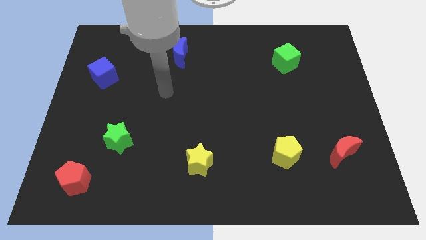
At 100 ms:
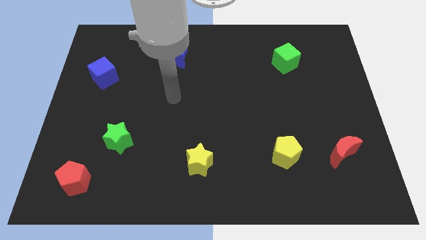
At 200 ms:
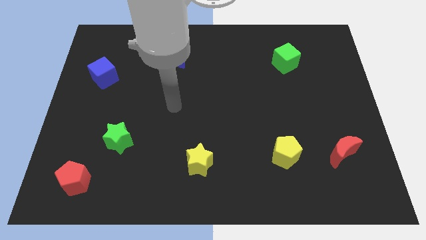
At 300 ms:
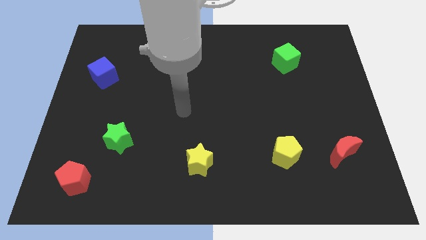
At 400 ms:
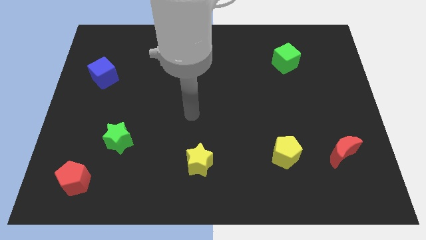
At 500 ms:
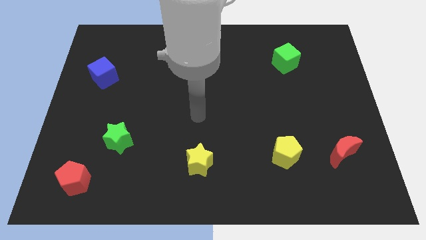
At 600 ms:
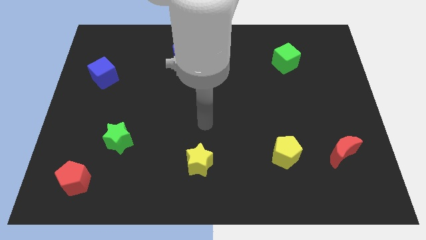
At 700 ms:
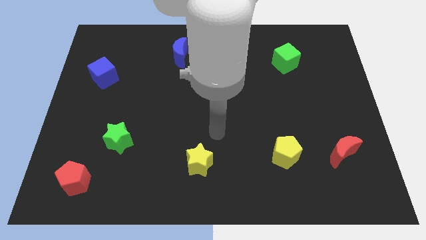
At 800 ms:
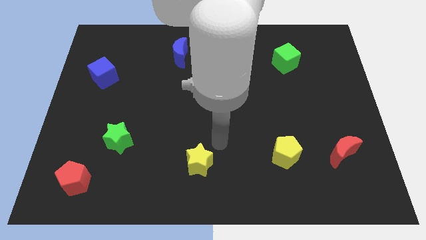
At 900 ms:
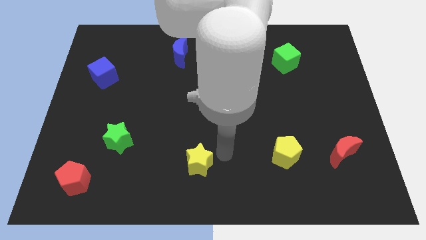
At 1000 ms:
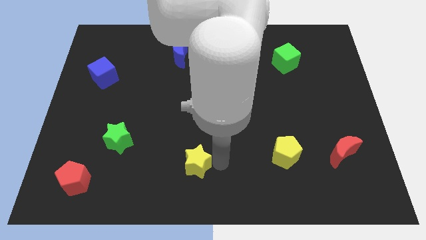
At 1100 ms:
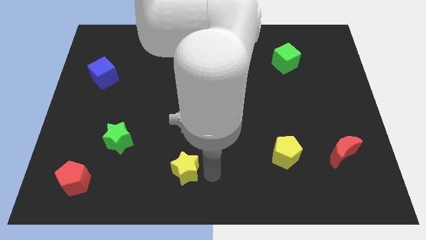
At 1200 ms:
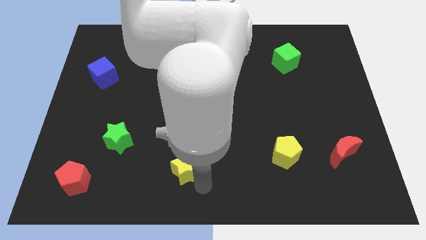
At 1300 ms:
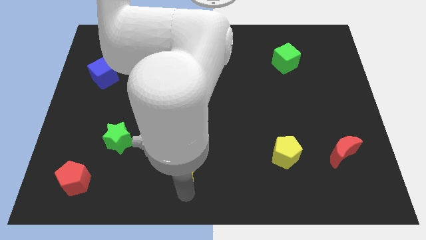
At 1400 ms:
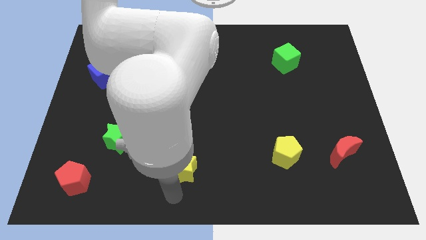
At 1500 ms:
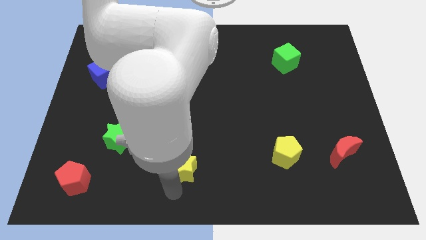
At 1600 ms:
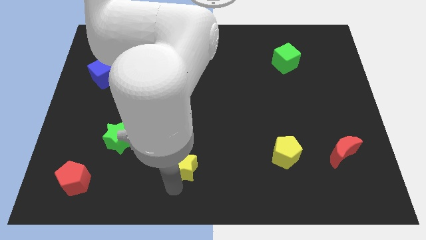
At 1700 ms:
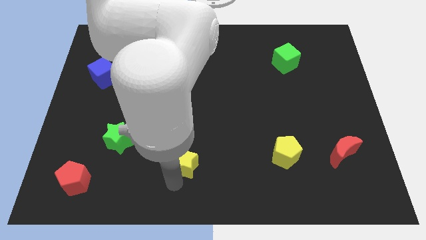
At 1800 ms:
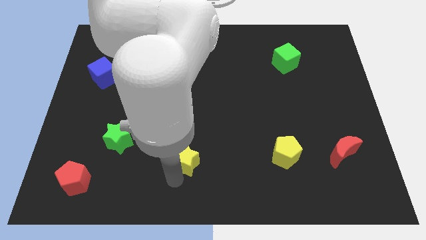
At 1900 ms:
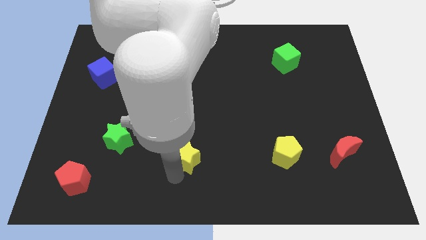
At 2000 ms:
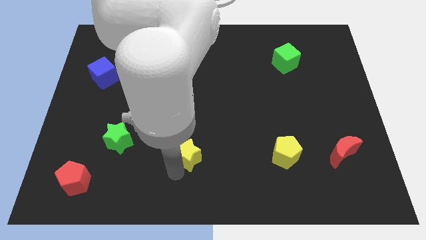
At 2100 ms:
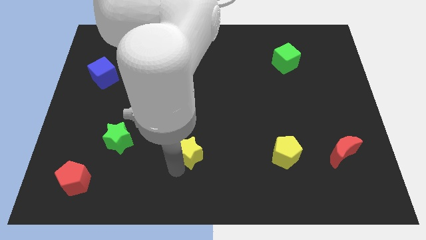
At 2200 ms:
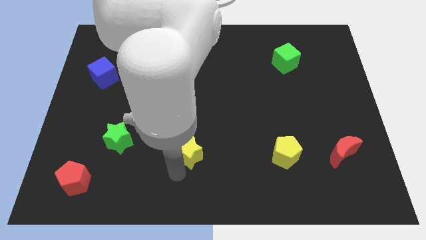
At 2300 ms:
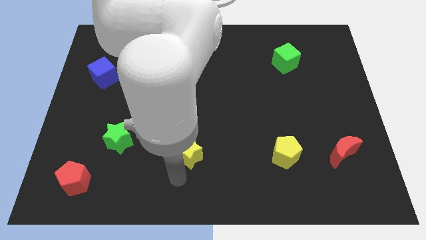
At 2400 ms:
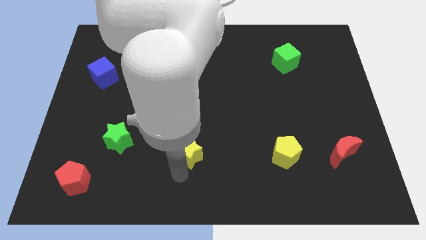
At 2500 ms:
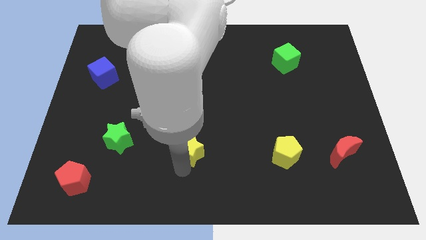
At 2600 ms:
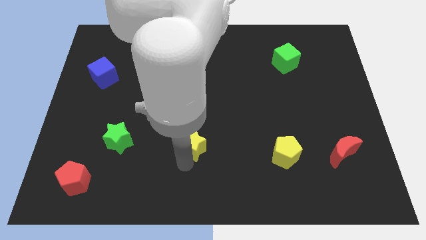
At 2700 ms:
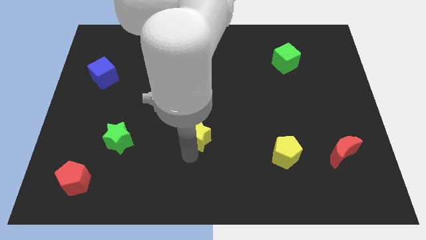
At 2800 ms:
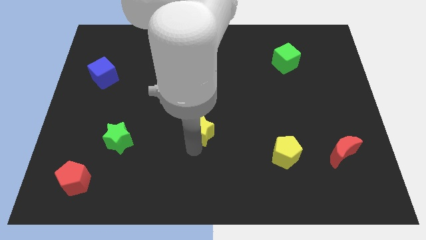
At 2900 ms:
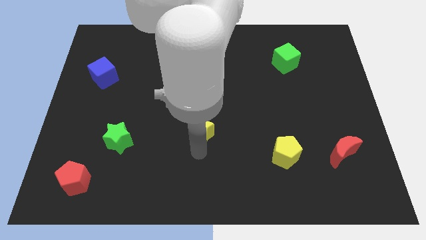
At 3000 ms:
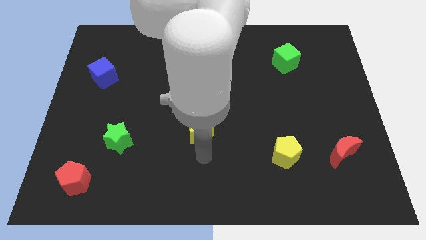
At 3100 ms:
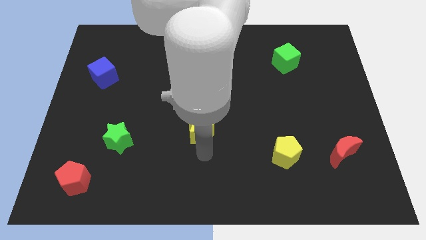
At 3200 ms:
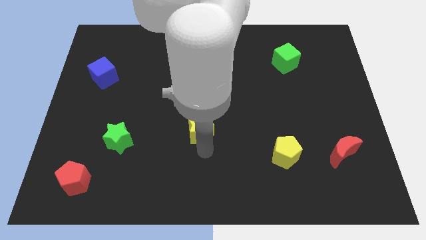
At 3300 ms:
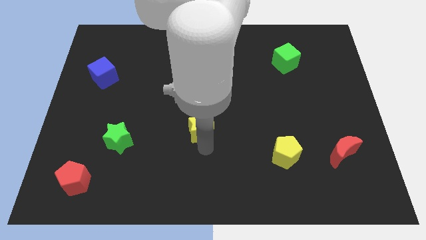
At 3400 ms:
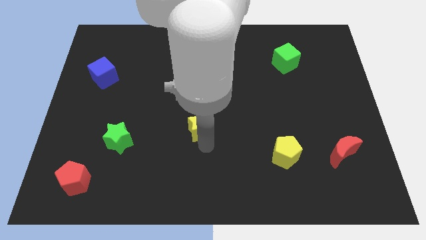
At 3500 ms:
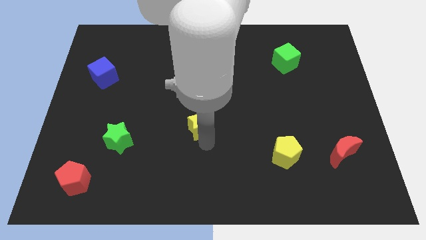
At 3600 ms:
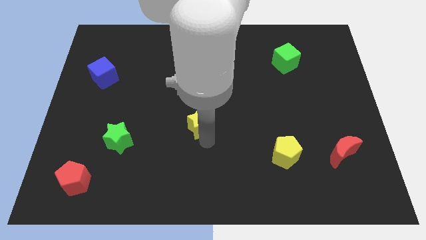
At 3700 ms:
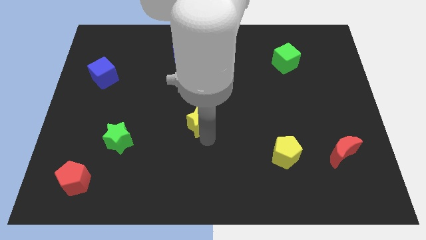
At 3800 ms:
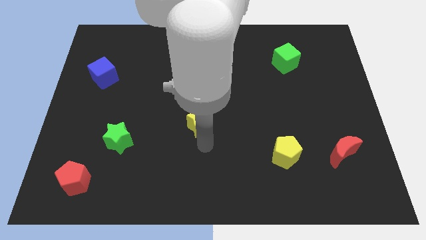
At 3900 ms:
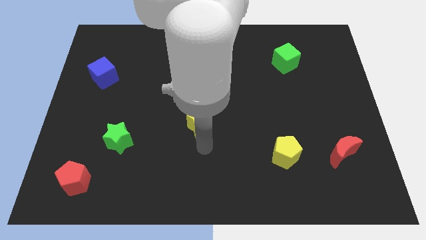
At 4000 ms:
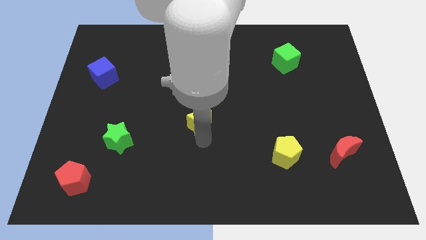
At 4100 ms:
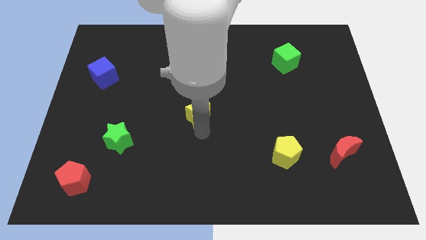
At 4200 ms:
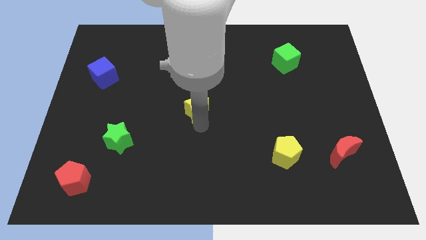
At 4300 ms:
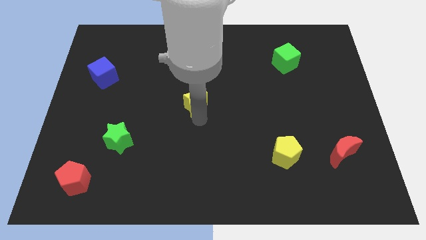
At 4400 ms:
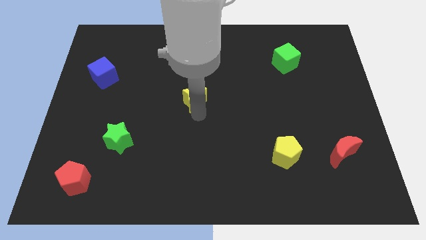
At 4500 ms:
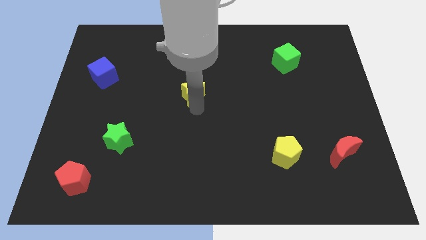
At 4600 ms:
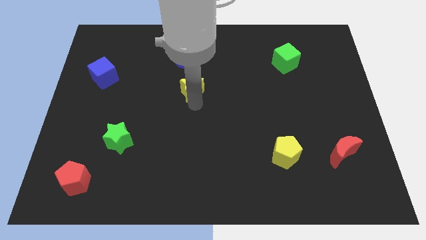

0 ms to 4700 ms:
slide the yellow star upwards

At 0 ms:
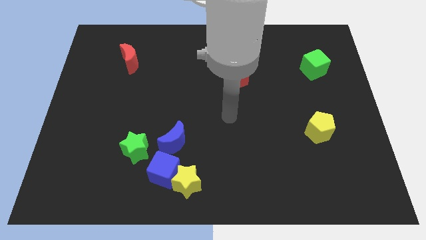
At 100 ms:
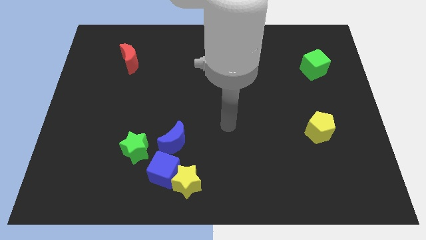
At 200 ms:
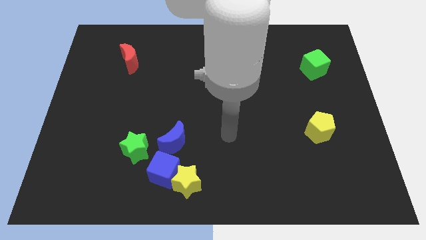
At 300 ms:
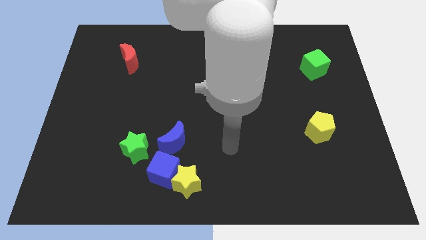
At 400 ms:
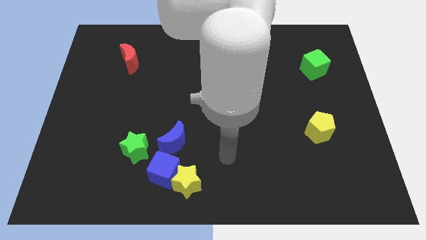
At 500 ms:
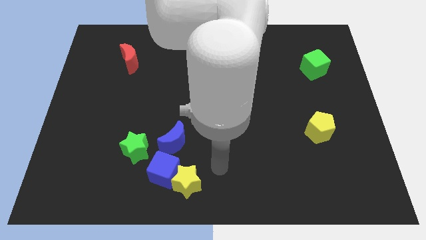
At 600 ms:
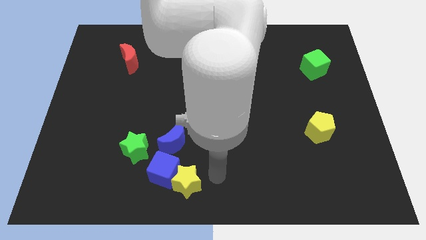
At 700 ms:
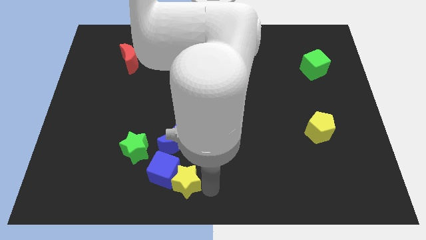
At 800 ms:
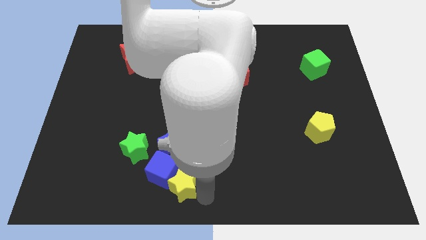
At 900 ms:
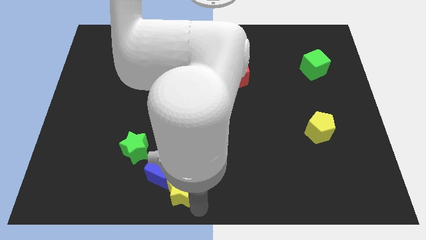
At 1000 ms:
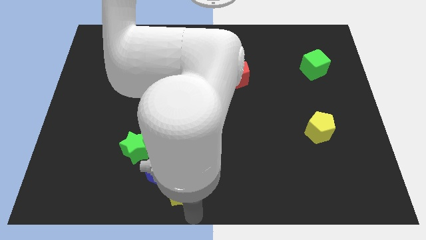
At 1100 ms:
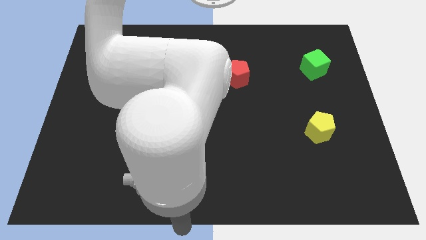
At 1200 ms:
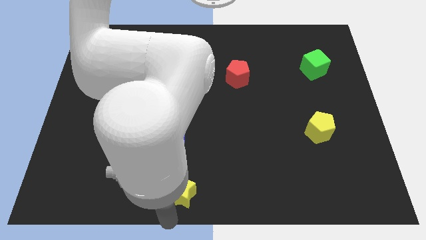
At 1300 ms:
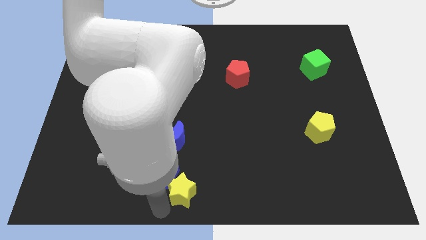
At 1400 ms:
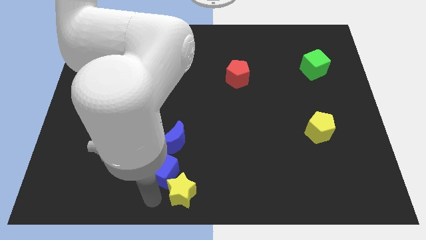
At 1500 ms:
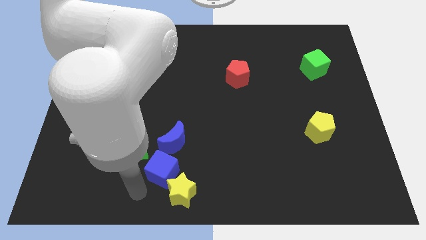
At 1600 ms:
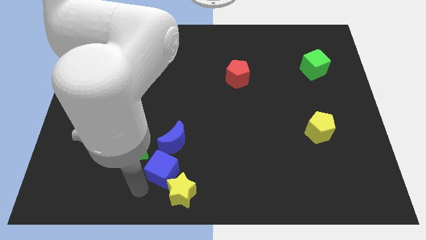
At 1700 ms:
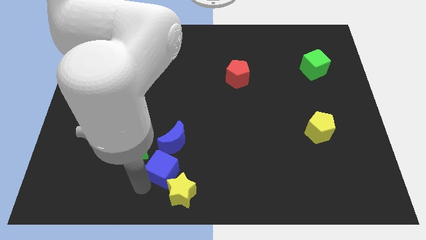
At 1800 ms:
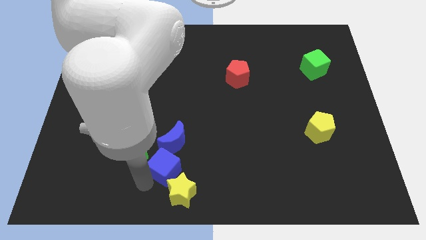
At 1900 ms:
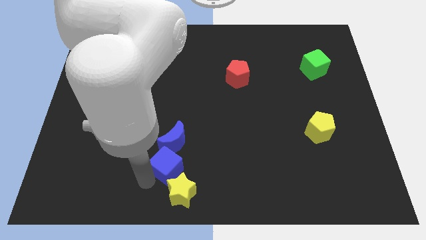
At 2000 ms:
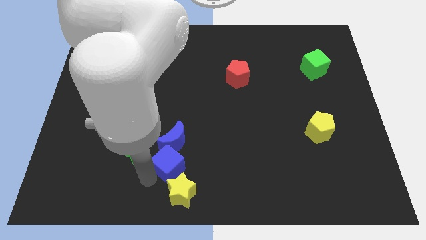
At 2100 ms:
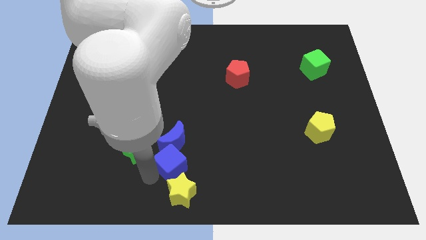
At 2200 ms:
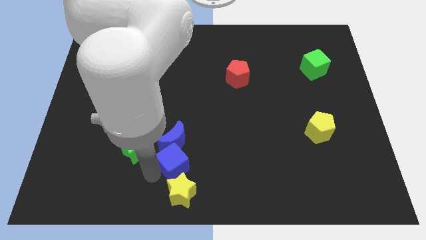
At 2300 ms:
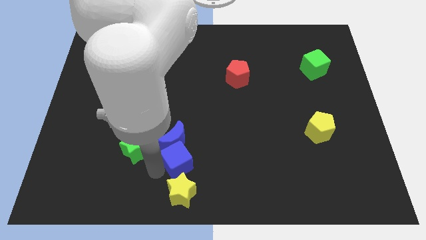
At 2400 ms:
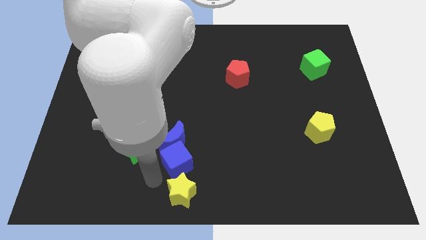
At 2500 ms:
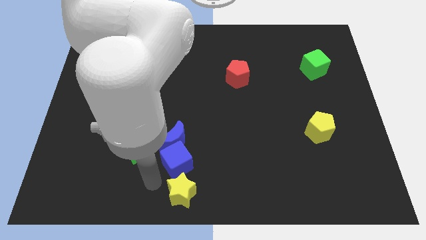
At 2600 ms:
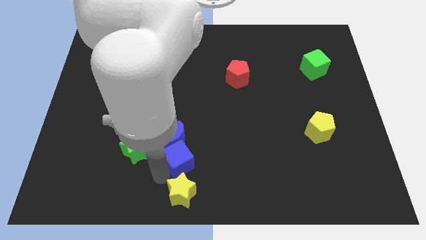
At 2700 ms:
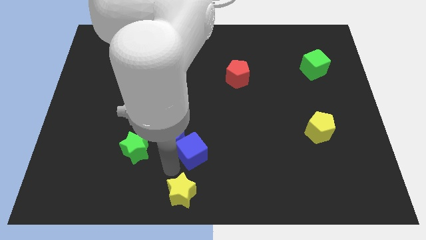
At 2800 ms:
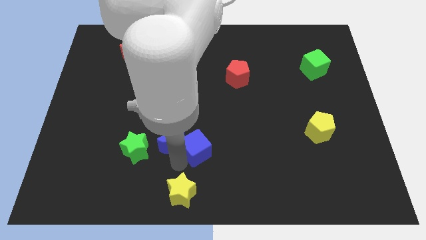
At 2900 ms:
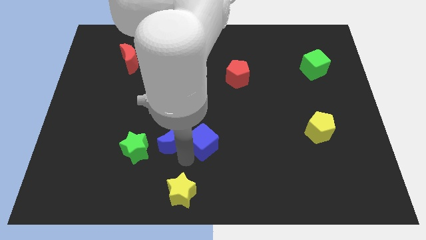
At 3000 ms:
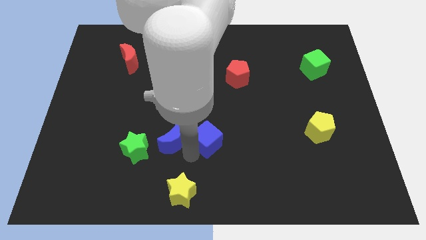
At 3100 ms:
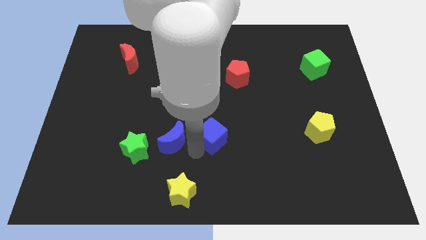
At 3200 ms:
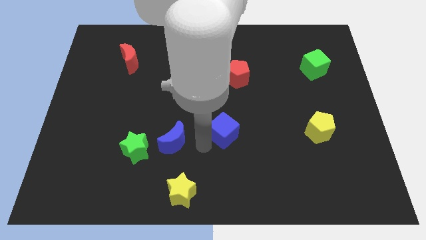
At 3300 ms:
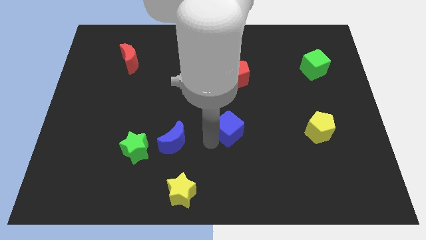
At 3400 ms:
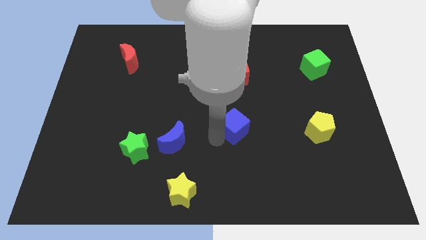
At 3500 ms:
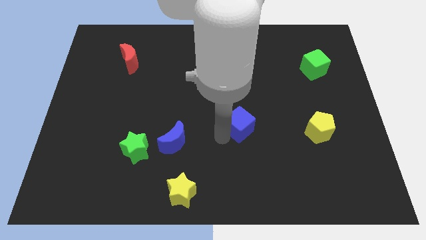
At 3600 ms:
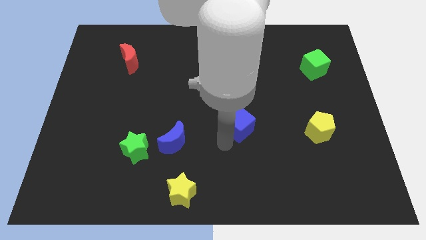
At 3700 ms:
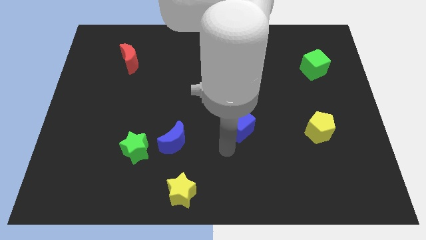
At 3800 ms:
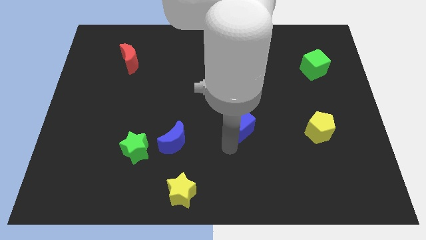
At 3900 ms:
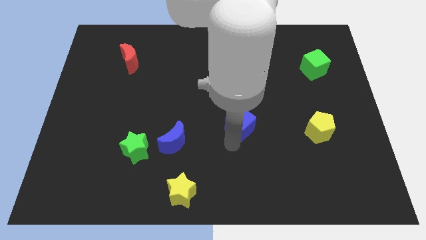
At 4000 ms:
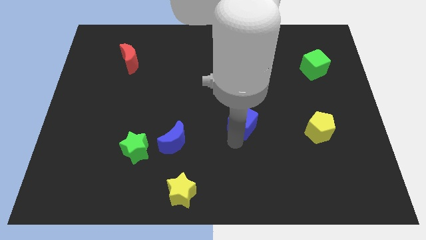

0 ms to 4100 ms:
move the blue cube up and right
